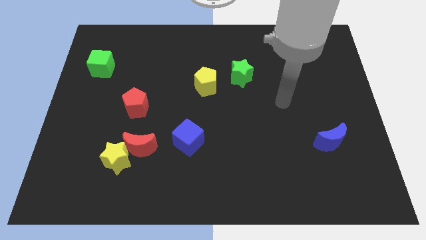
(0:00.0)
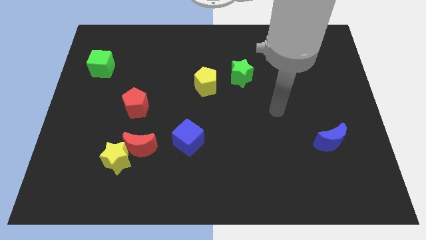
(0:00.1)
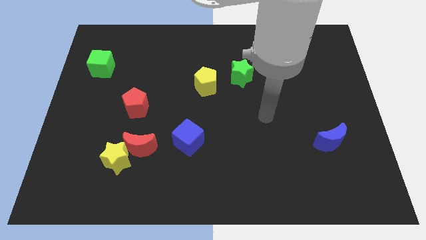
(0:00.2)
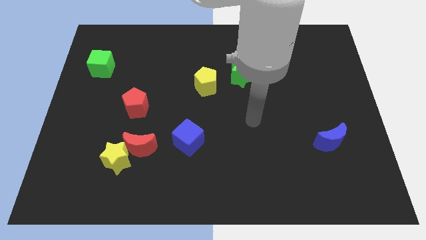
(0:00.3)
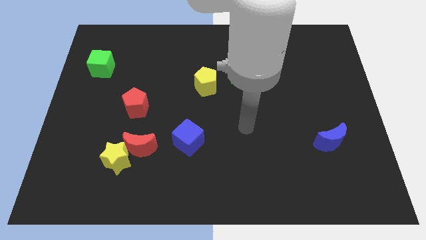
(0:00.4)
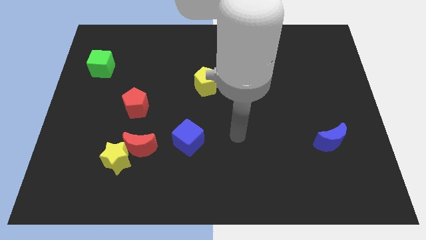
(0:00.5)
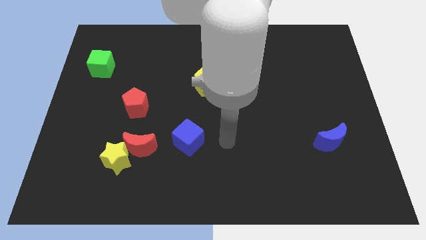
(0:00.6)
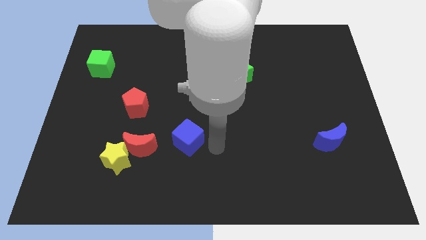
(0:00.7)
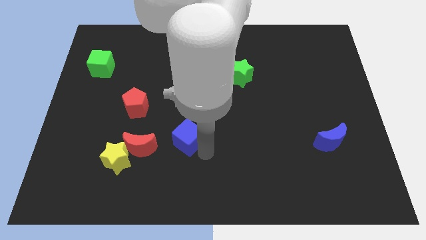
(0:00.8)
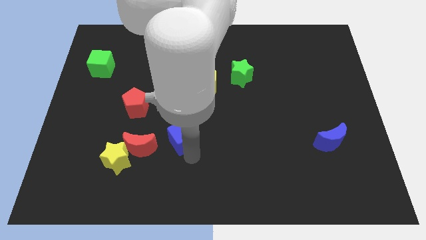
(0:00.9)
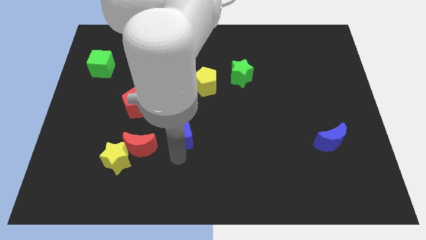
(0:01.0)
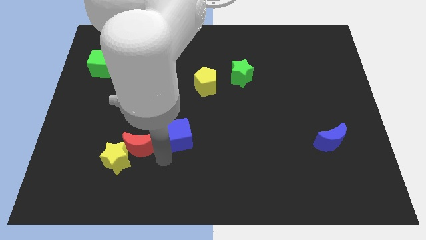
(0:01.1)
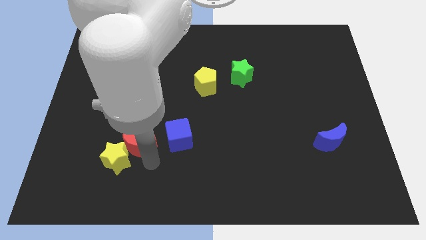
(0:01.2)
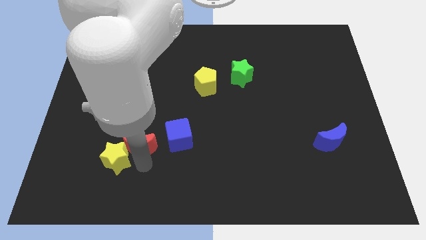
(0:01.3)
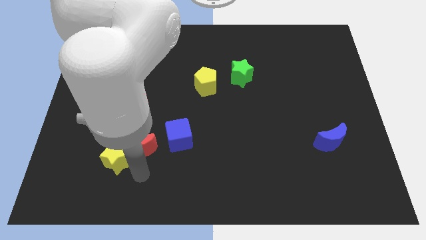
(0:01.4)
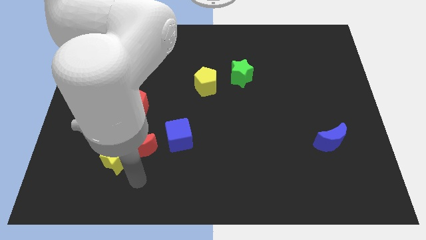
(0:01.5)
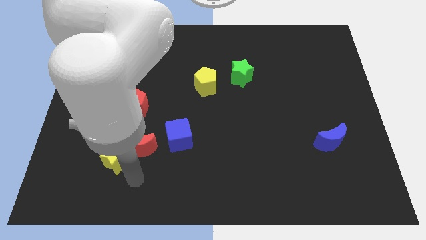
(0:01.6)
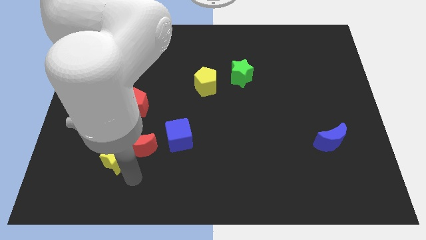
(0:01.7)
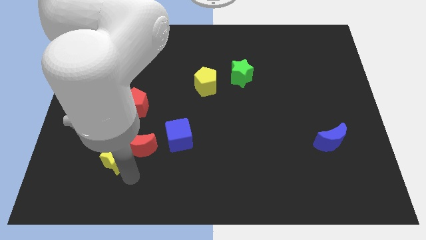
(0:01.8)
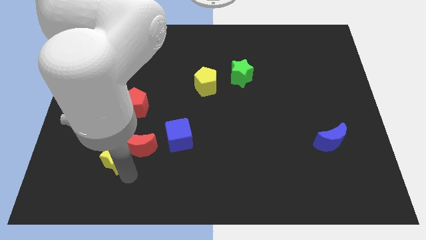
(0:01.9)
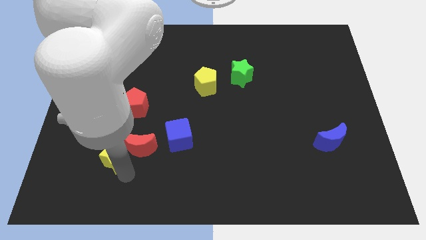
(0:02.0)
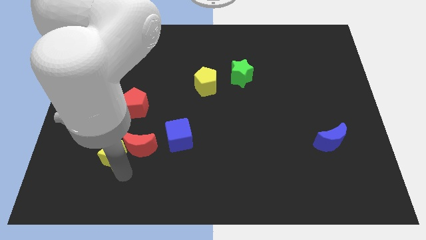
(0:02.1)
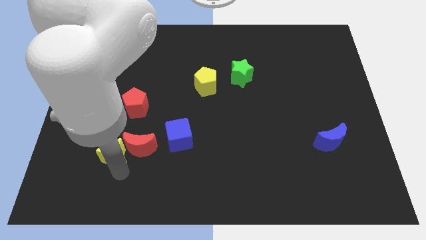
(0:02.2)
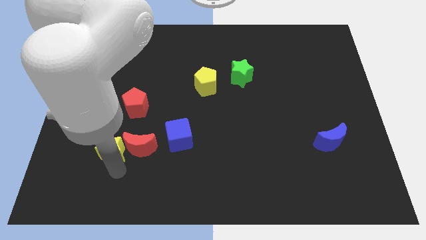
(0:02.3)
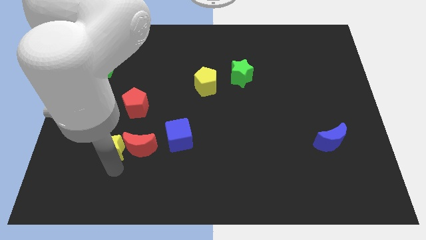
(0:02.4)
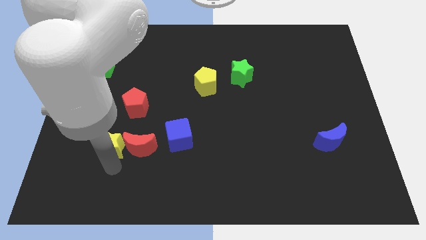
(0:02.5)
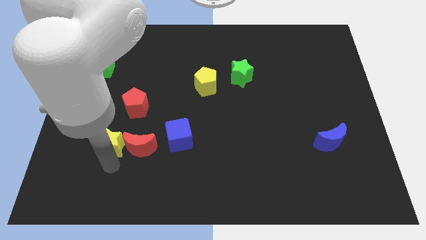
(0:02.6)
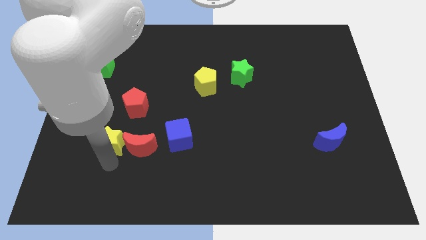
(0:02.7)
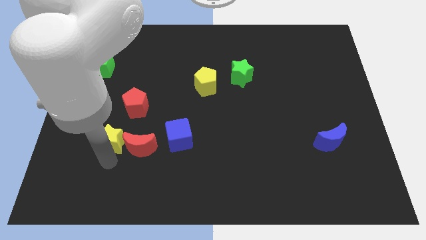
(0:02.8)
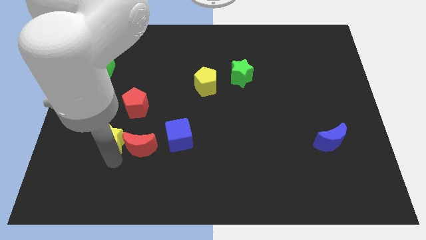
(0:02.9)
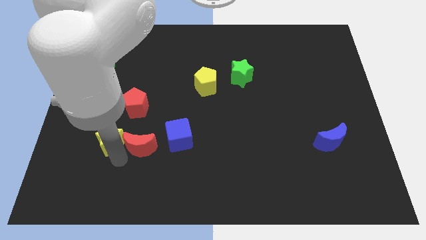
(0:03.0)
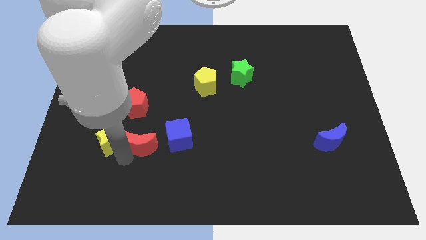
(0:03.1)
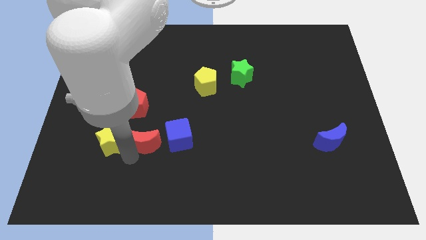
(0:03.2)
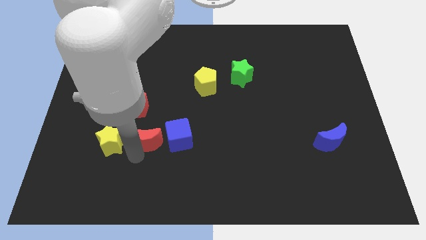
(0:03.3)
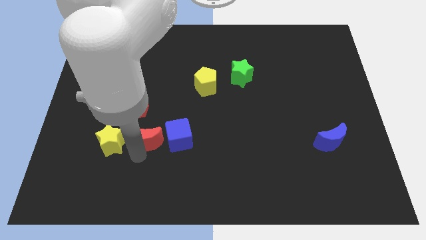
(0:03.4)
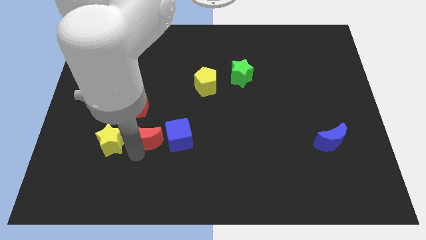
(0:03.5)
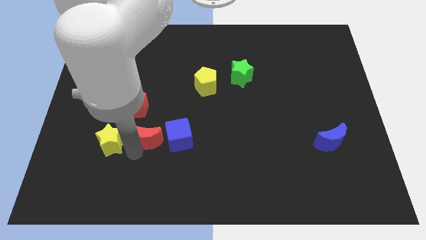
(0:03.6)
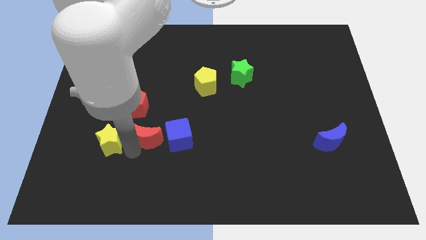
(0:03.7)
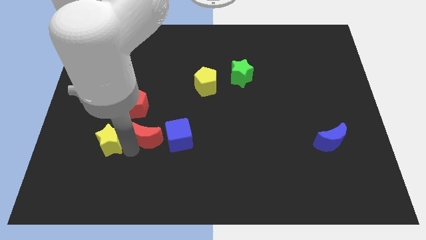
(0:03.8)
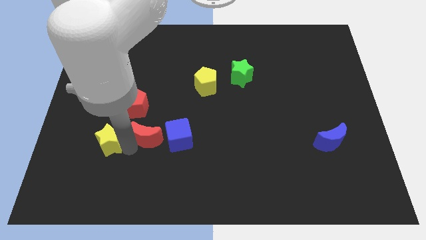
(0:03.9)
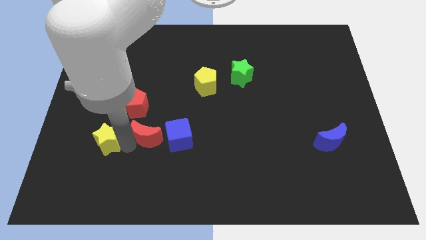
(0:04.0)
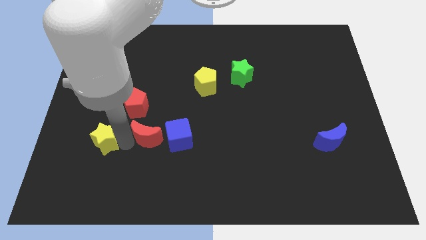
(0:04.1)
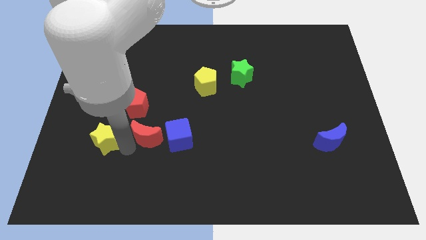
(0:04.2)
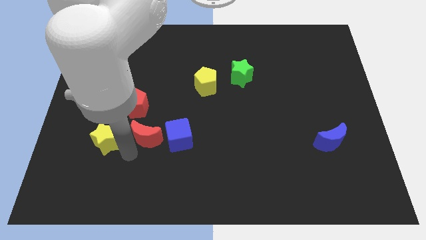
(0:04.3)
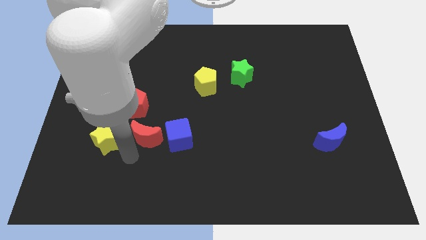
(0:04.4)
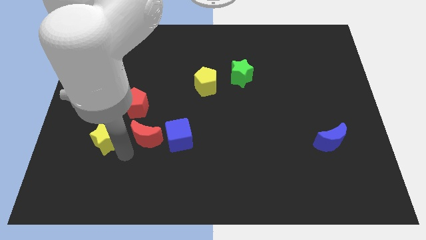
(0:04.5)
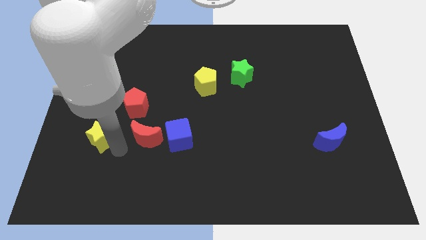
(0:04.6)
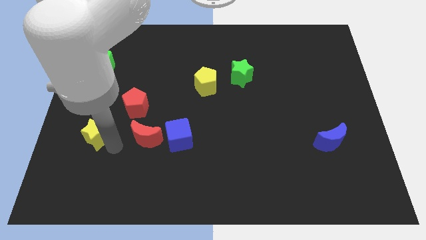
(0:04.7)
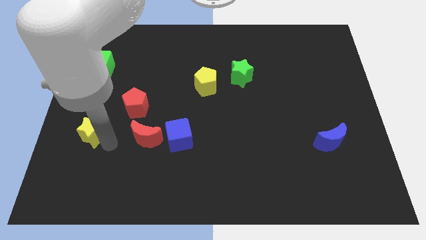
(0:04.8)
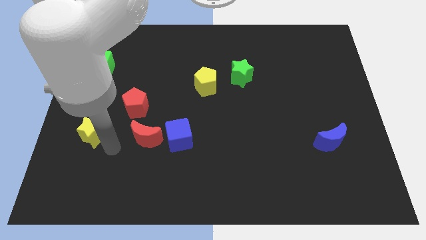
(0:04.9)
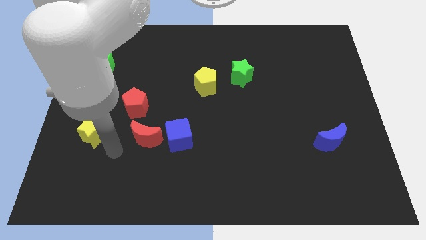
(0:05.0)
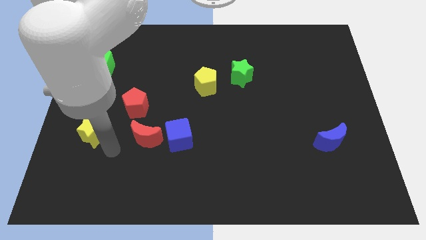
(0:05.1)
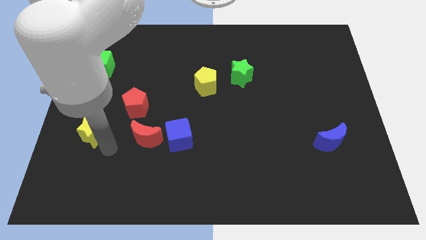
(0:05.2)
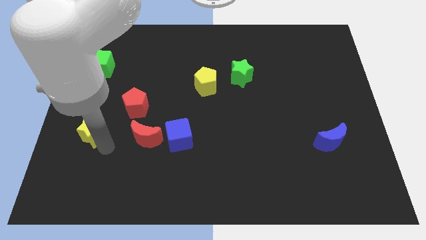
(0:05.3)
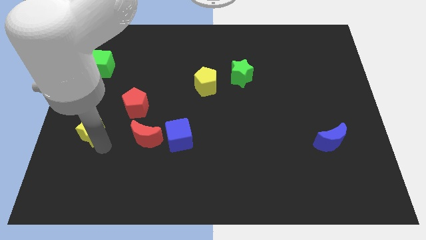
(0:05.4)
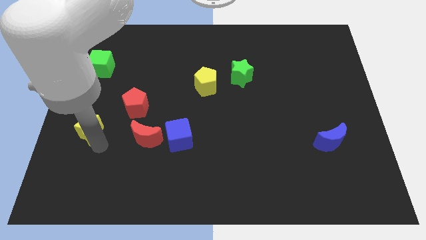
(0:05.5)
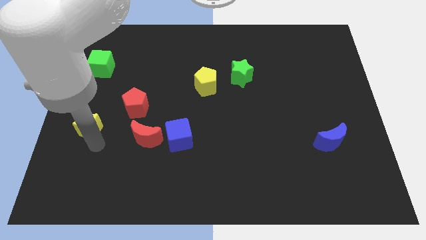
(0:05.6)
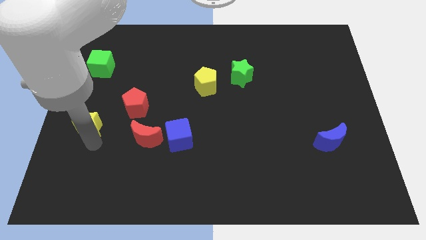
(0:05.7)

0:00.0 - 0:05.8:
push the yellow star to the left side of the board

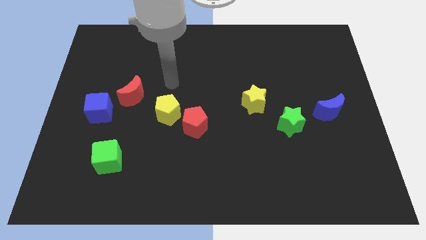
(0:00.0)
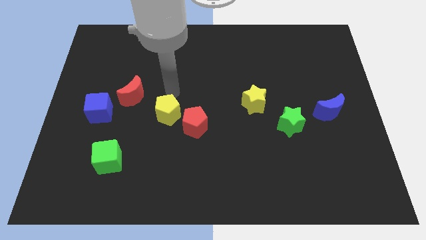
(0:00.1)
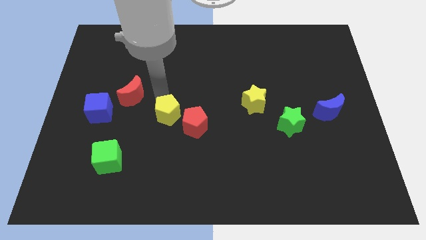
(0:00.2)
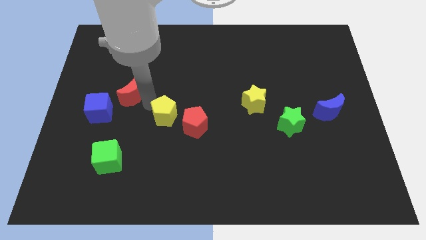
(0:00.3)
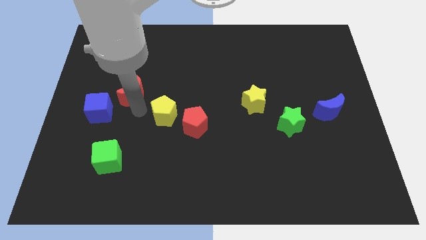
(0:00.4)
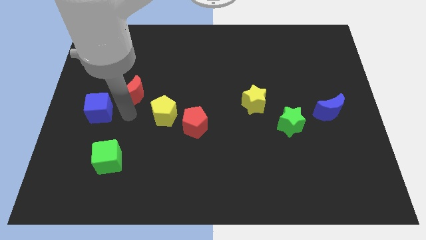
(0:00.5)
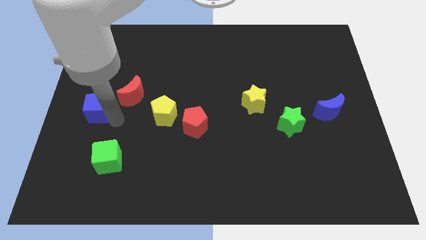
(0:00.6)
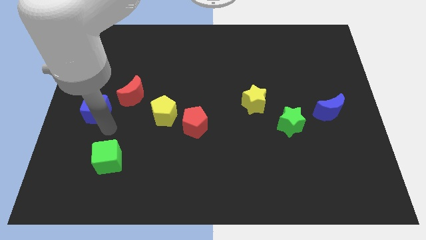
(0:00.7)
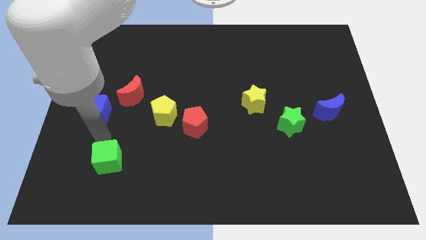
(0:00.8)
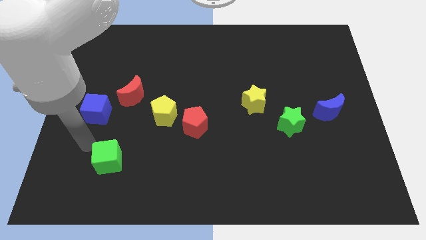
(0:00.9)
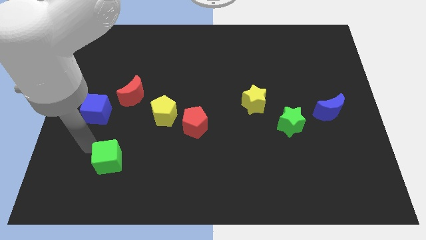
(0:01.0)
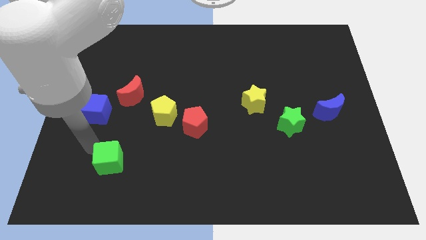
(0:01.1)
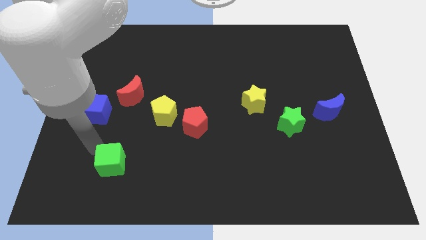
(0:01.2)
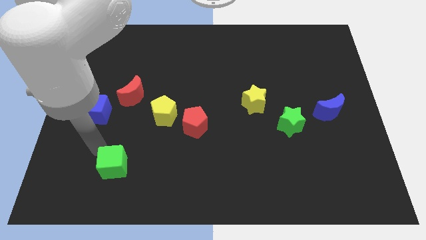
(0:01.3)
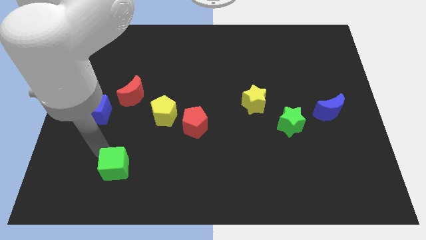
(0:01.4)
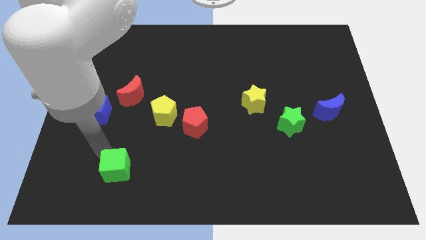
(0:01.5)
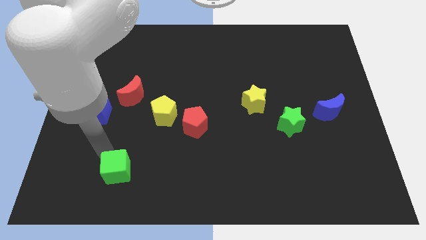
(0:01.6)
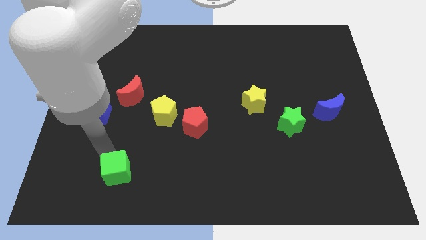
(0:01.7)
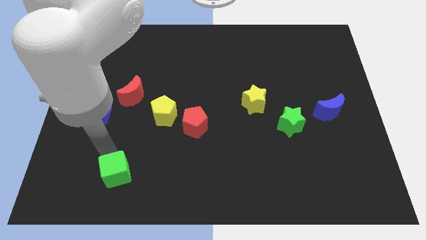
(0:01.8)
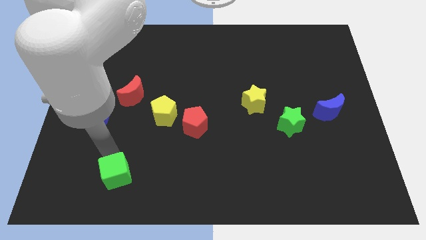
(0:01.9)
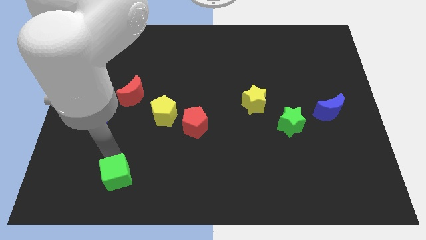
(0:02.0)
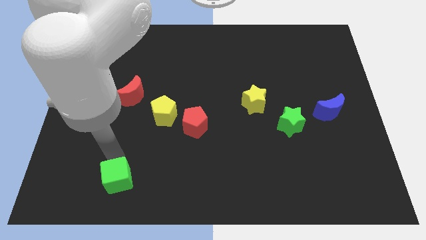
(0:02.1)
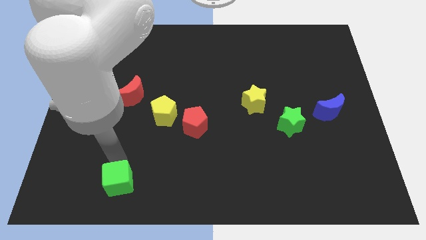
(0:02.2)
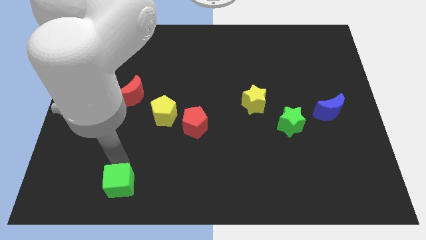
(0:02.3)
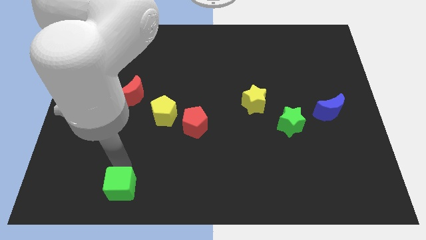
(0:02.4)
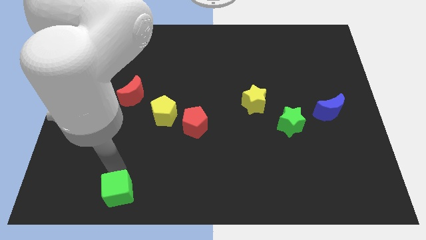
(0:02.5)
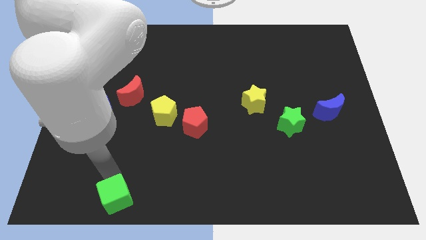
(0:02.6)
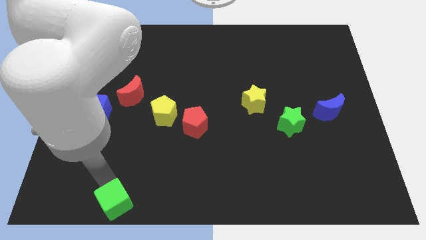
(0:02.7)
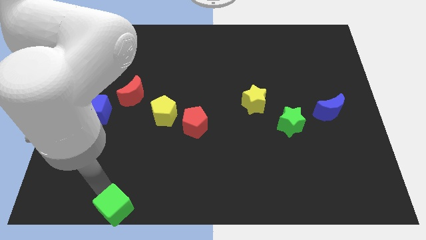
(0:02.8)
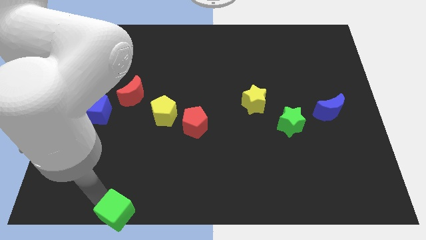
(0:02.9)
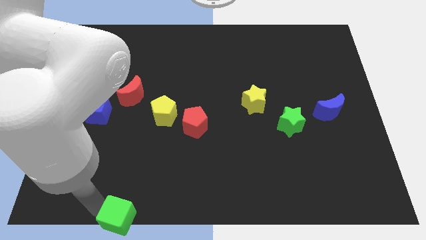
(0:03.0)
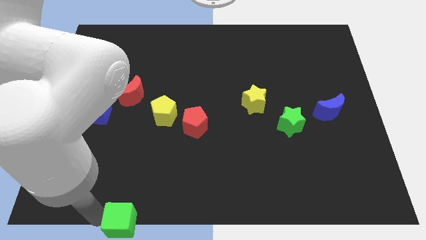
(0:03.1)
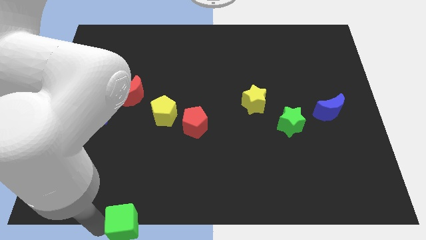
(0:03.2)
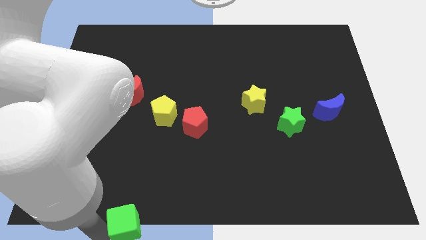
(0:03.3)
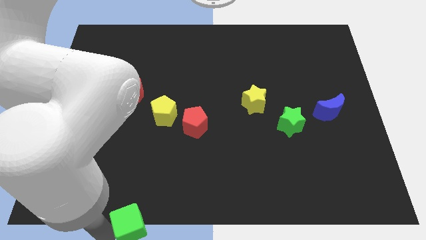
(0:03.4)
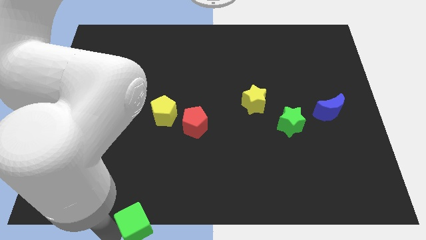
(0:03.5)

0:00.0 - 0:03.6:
put the green cube to the bottom
